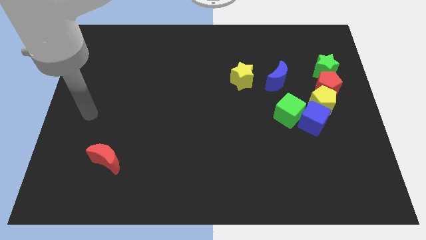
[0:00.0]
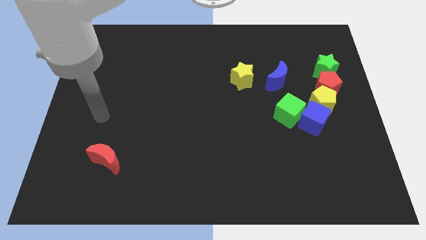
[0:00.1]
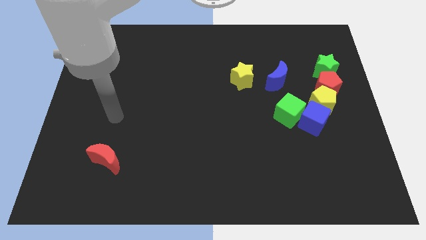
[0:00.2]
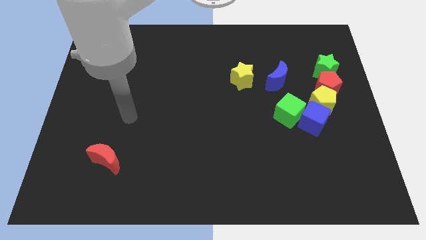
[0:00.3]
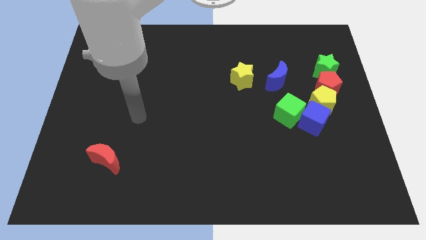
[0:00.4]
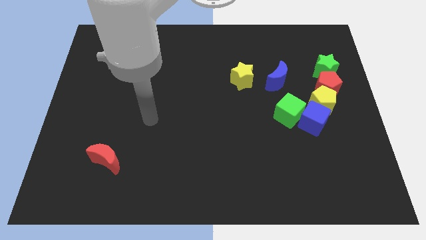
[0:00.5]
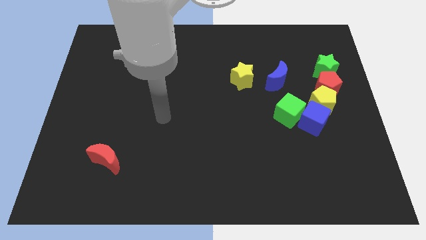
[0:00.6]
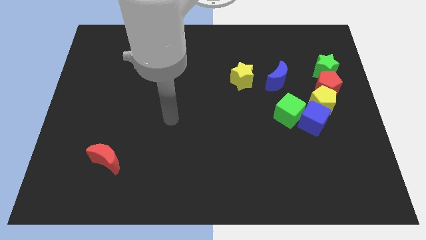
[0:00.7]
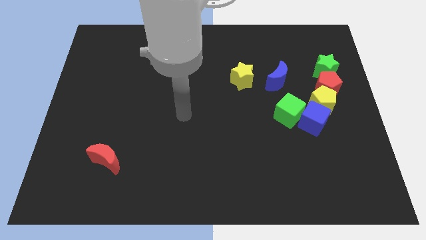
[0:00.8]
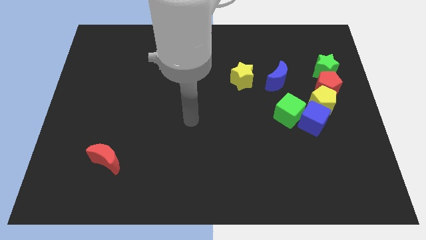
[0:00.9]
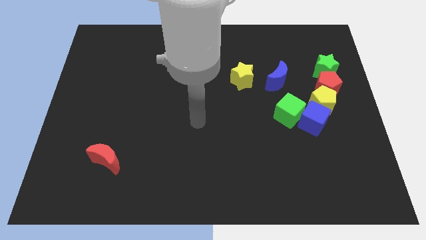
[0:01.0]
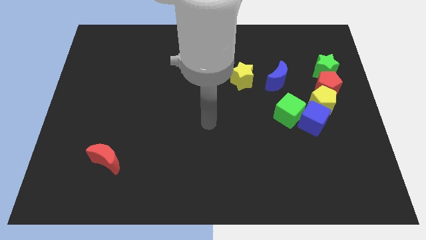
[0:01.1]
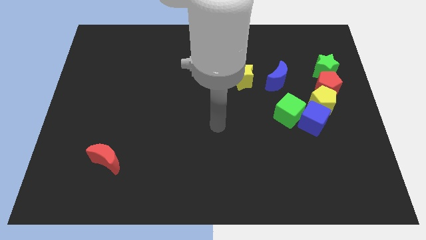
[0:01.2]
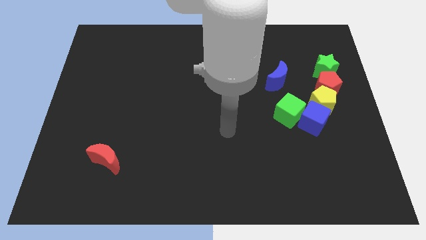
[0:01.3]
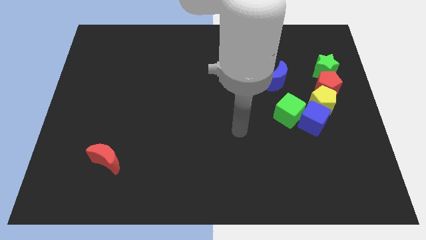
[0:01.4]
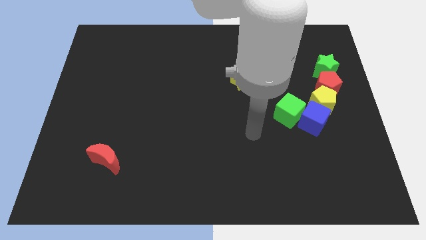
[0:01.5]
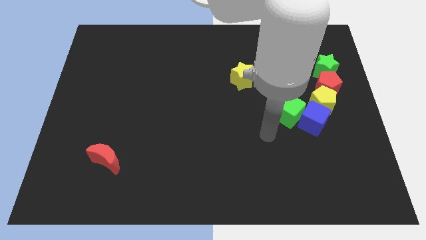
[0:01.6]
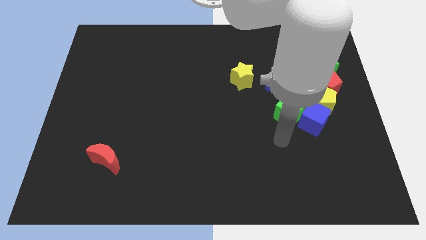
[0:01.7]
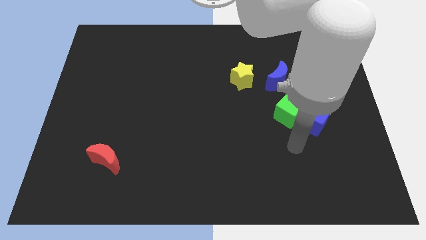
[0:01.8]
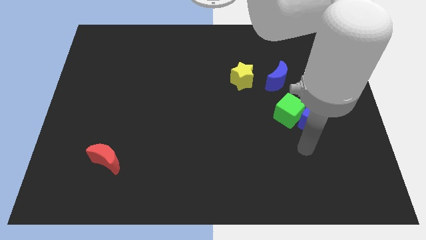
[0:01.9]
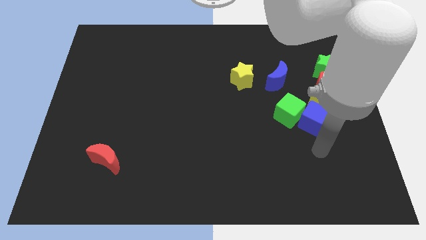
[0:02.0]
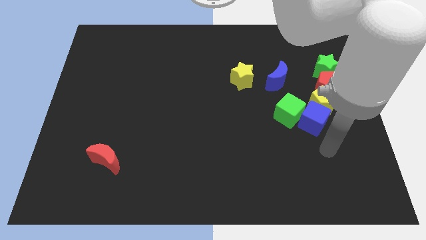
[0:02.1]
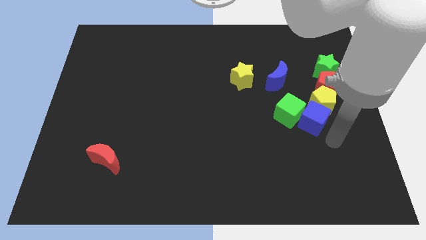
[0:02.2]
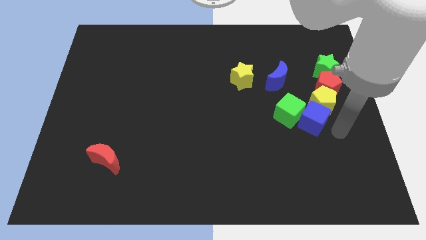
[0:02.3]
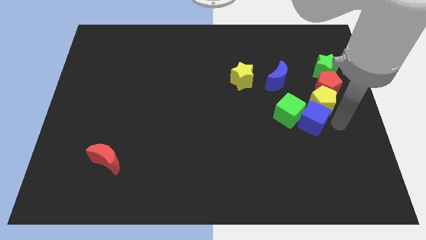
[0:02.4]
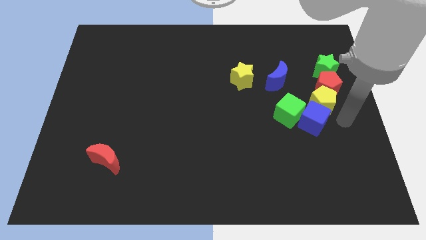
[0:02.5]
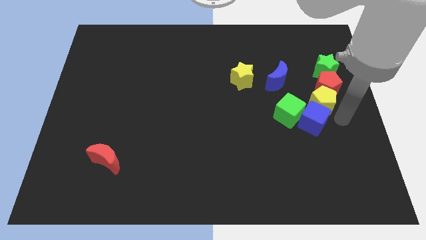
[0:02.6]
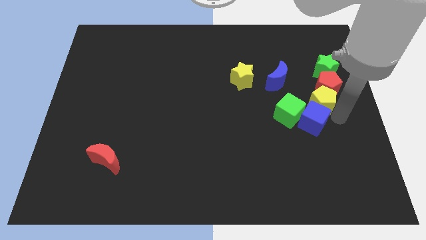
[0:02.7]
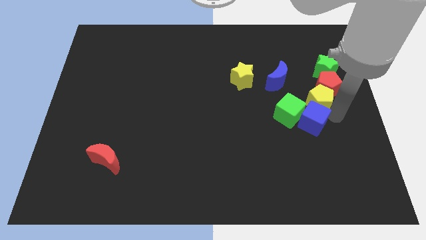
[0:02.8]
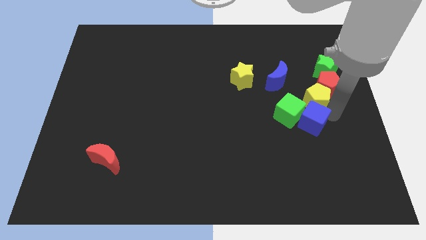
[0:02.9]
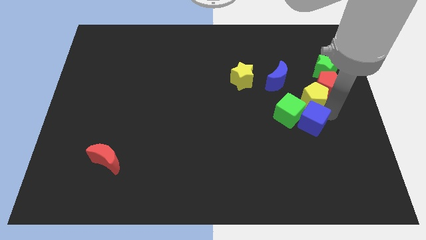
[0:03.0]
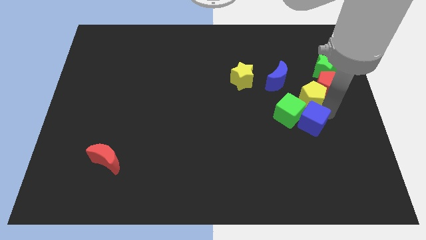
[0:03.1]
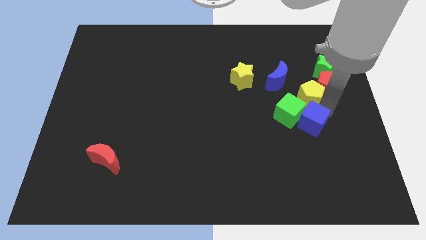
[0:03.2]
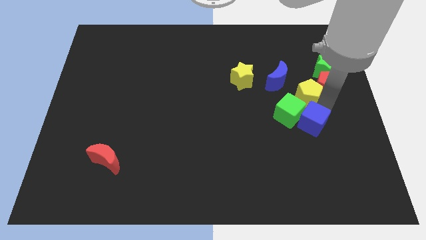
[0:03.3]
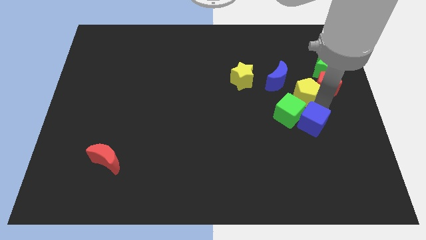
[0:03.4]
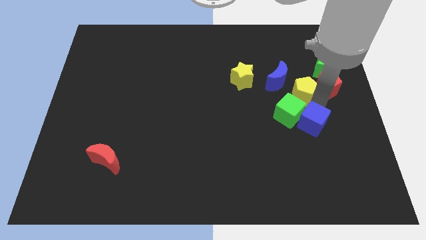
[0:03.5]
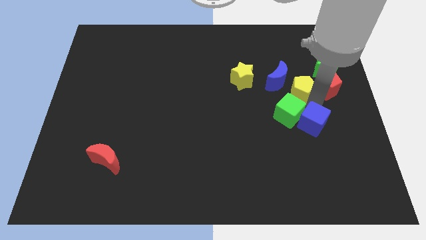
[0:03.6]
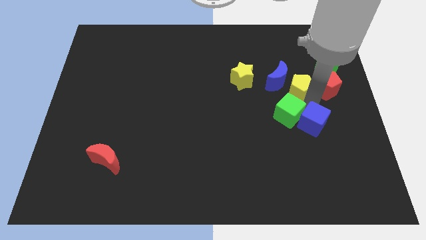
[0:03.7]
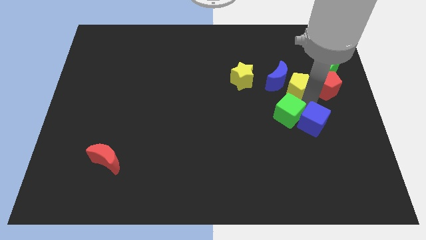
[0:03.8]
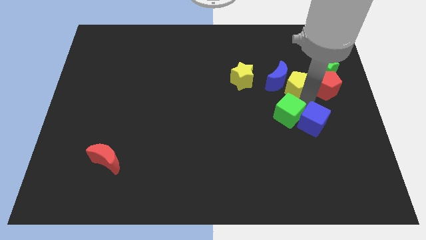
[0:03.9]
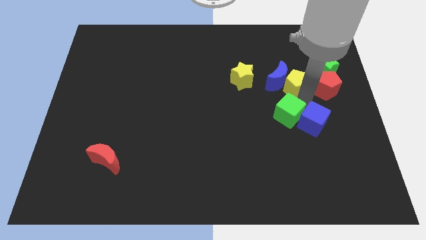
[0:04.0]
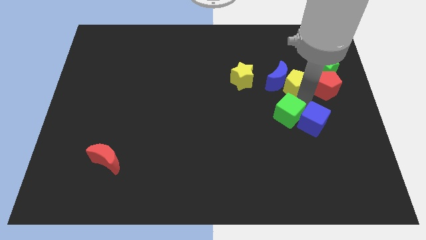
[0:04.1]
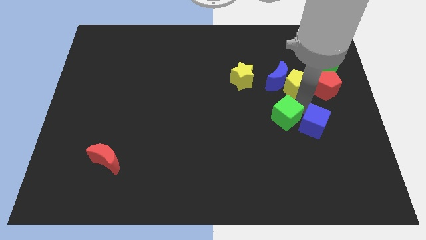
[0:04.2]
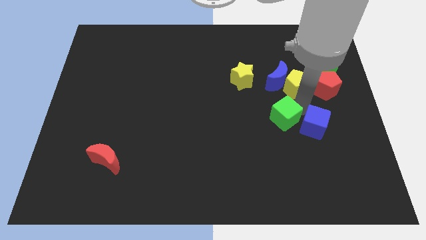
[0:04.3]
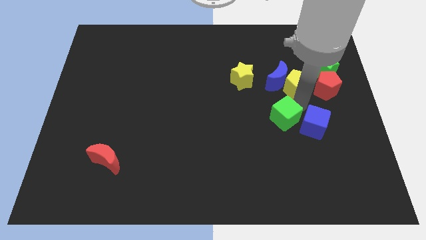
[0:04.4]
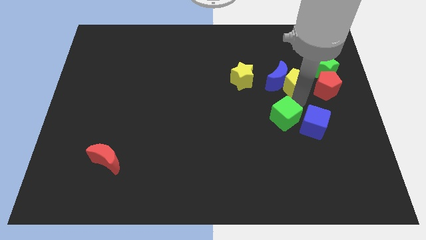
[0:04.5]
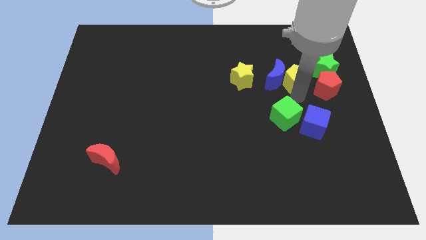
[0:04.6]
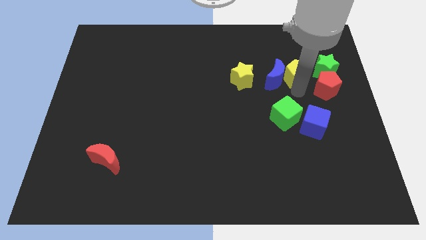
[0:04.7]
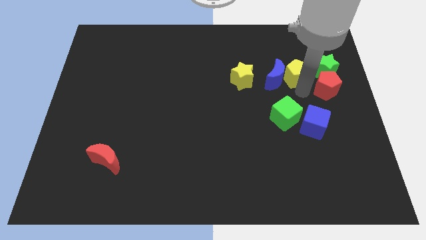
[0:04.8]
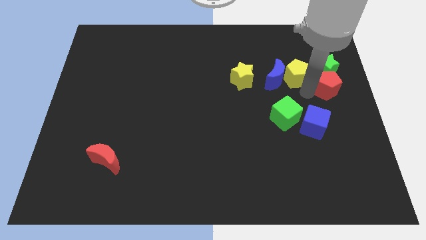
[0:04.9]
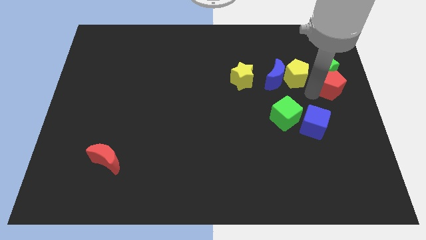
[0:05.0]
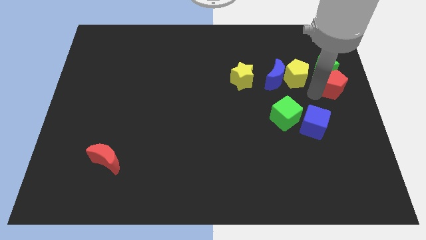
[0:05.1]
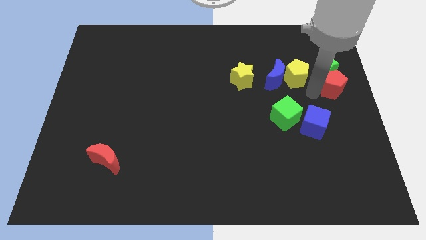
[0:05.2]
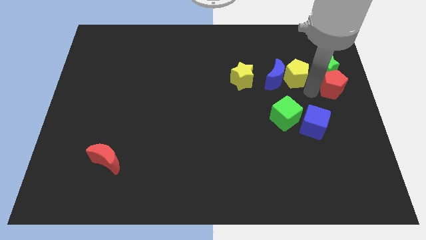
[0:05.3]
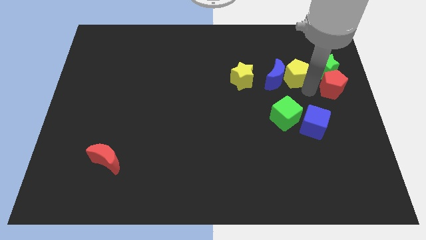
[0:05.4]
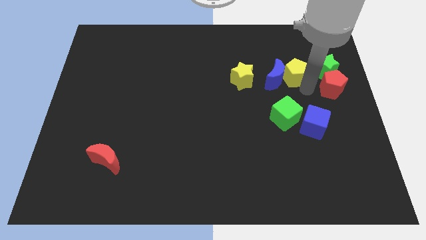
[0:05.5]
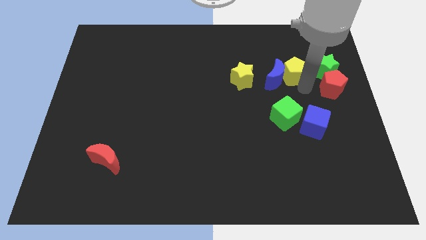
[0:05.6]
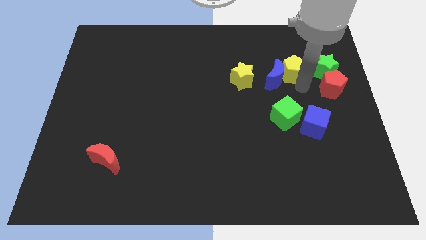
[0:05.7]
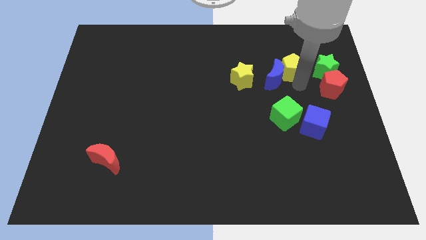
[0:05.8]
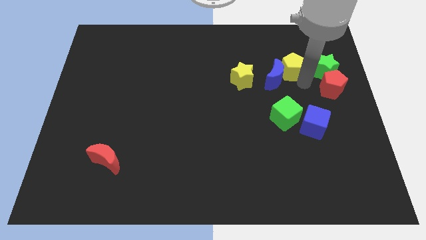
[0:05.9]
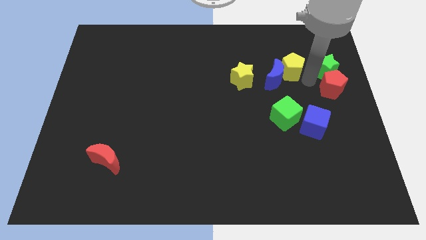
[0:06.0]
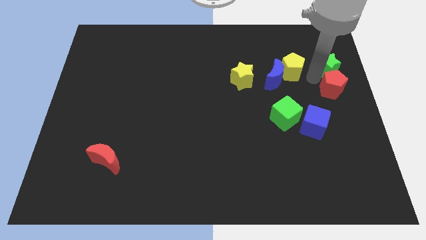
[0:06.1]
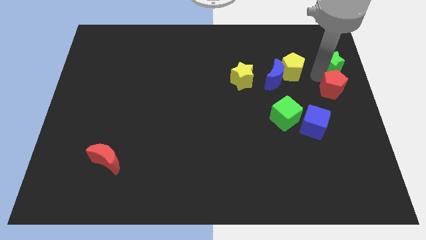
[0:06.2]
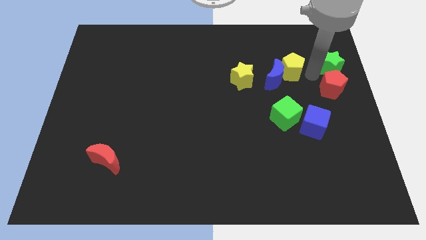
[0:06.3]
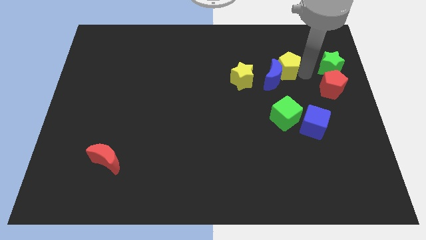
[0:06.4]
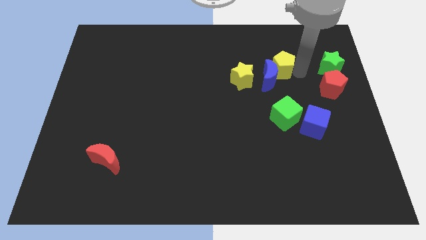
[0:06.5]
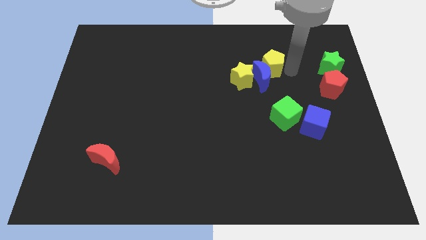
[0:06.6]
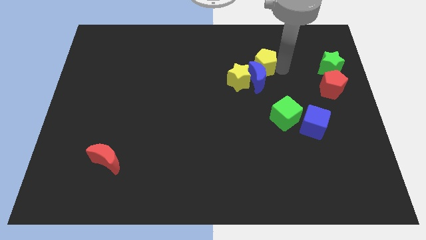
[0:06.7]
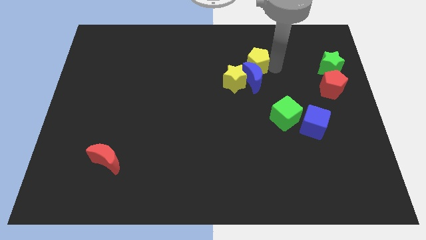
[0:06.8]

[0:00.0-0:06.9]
put the yellow pentagon diagonally up and to the left of the blue moon
